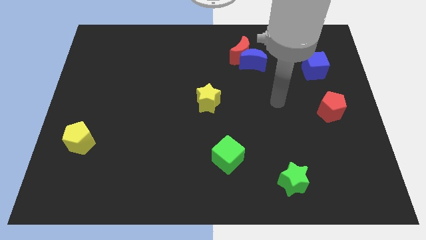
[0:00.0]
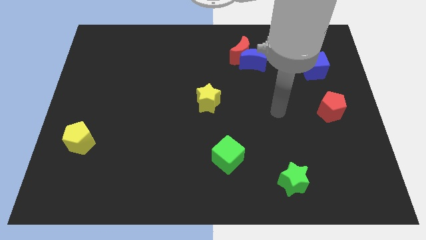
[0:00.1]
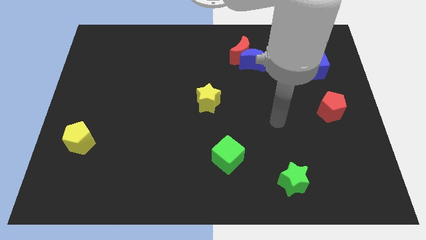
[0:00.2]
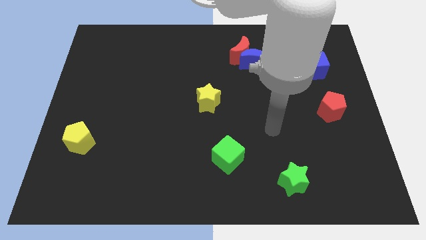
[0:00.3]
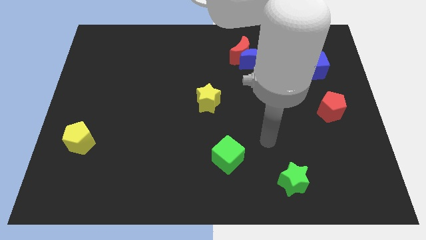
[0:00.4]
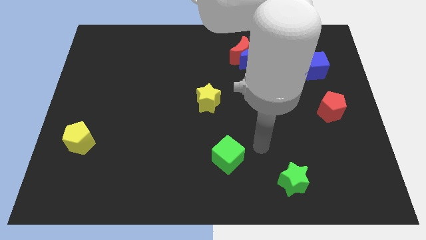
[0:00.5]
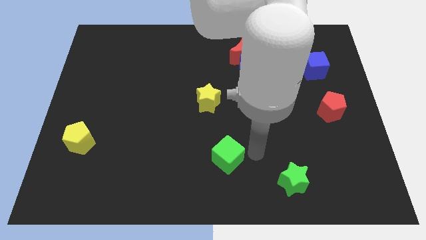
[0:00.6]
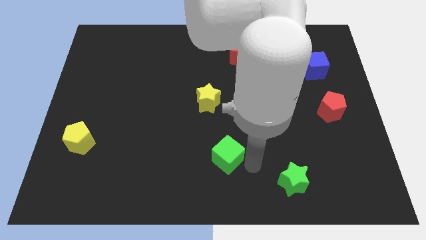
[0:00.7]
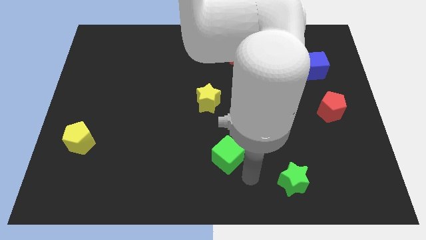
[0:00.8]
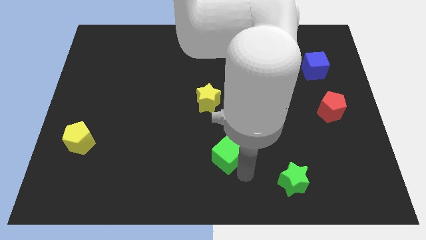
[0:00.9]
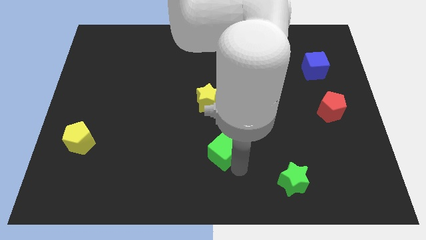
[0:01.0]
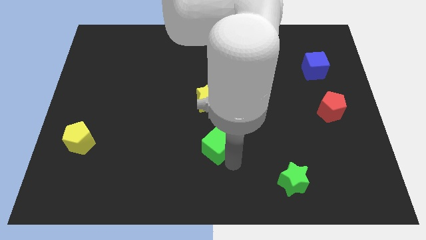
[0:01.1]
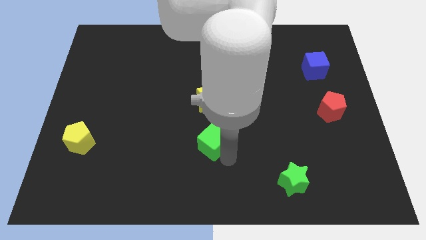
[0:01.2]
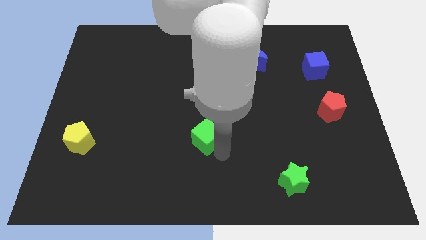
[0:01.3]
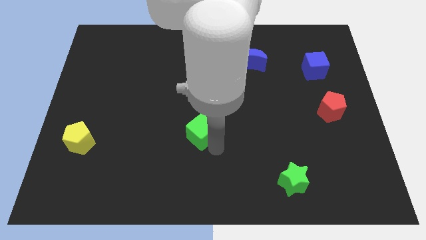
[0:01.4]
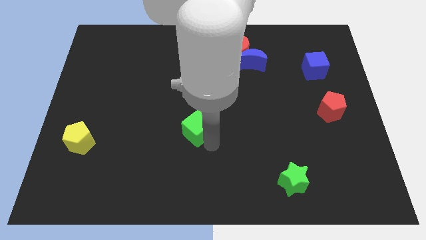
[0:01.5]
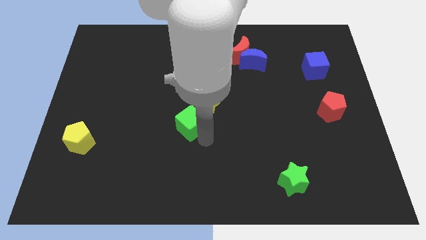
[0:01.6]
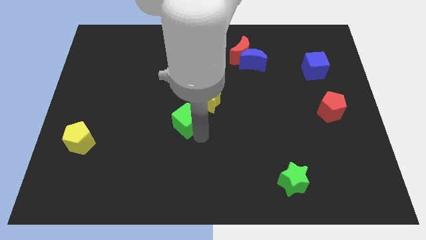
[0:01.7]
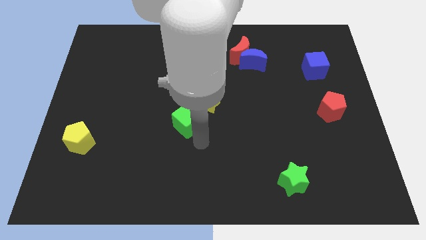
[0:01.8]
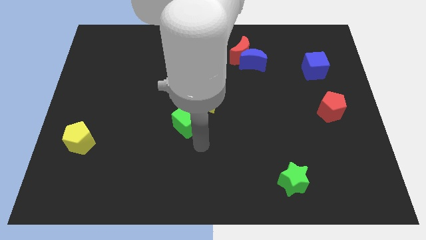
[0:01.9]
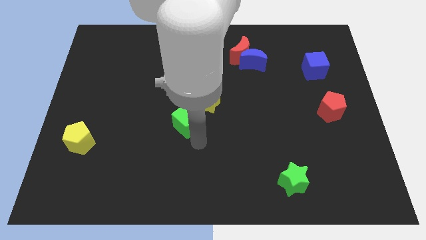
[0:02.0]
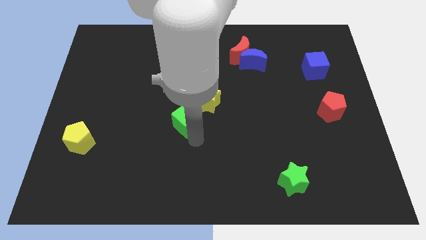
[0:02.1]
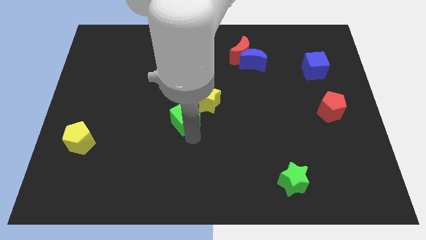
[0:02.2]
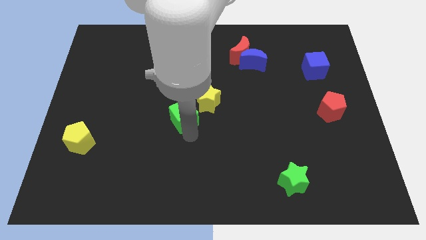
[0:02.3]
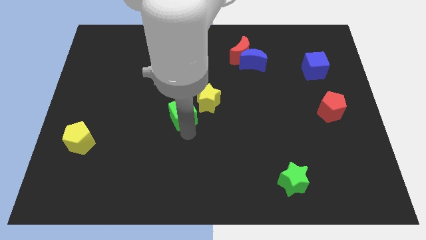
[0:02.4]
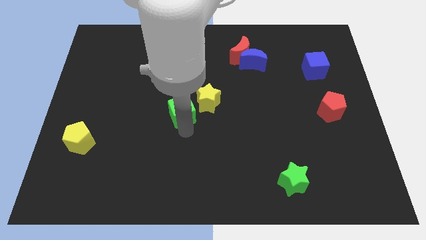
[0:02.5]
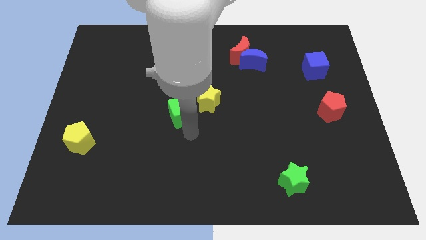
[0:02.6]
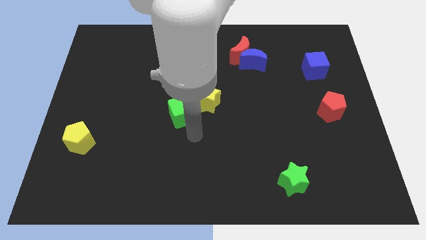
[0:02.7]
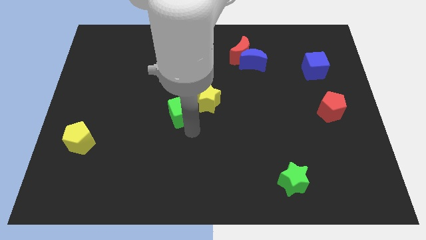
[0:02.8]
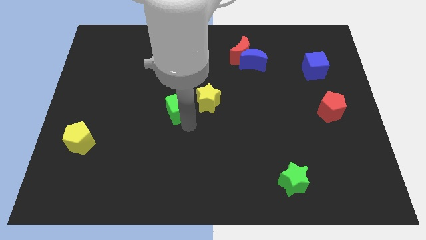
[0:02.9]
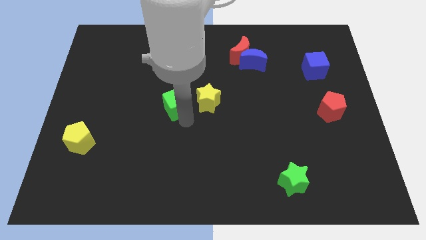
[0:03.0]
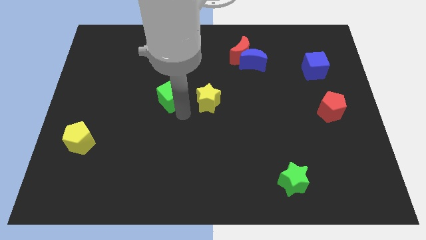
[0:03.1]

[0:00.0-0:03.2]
push the green cube upwards and left

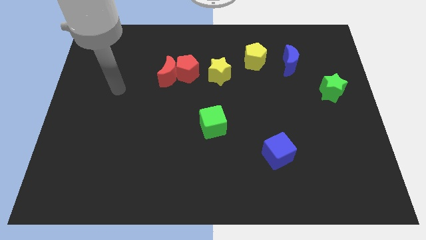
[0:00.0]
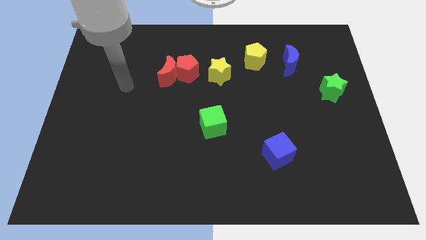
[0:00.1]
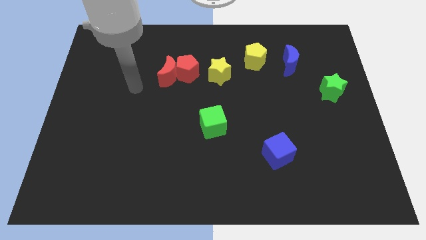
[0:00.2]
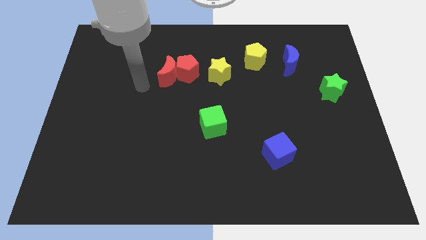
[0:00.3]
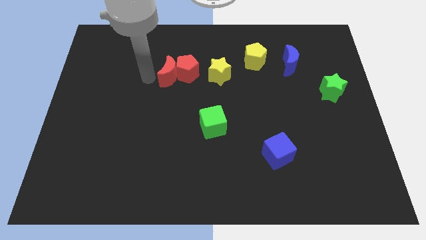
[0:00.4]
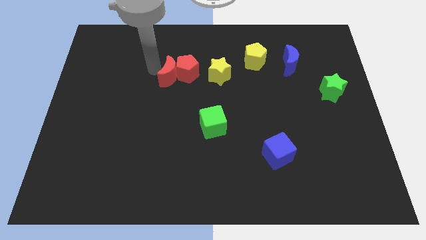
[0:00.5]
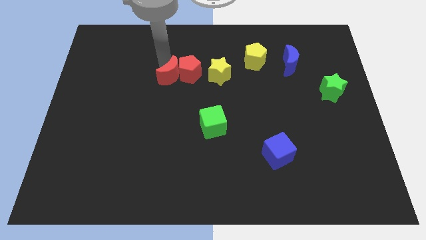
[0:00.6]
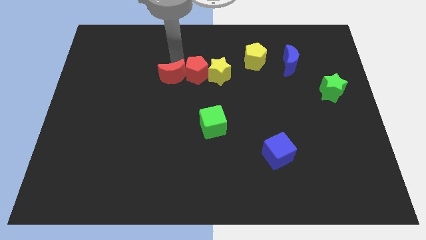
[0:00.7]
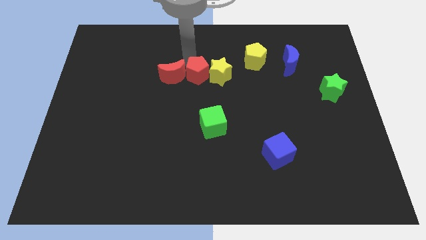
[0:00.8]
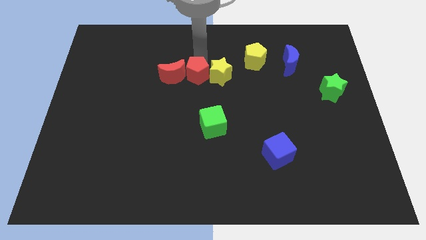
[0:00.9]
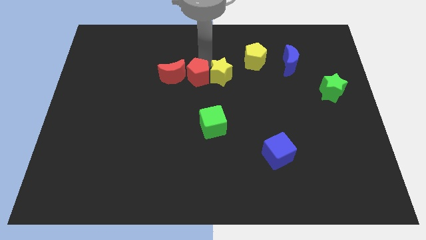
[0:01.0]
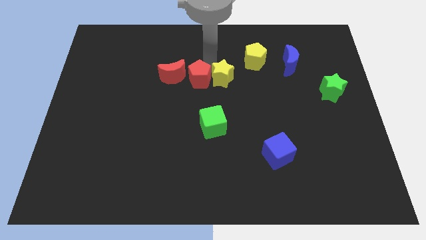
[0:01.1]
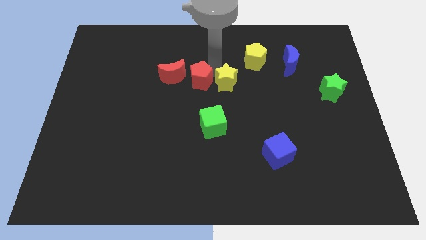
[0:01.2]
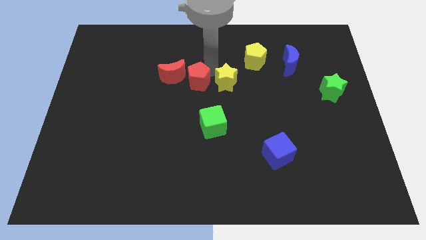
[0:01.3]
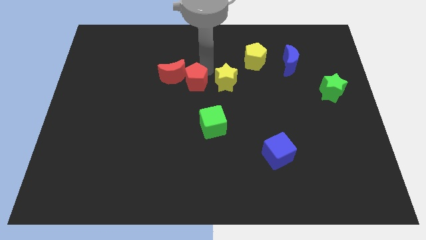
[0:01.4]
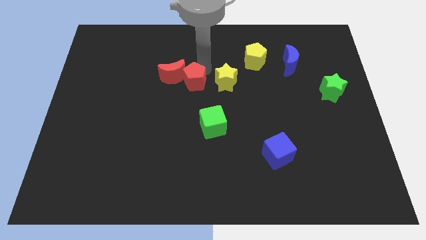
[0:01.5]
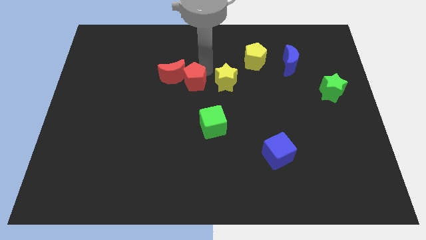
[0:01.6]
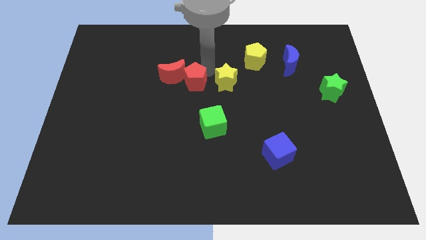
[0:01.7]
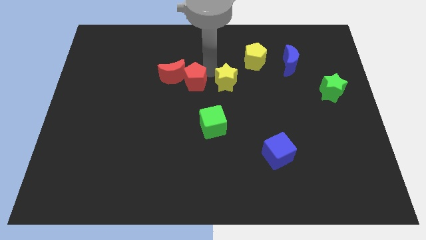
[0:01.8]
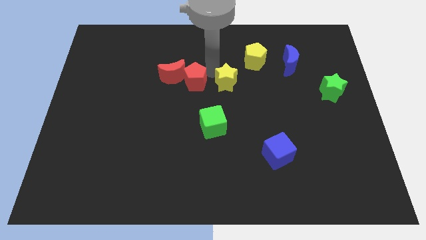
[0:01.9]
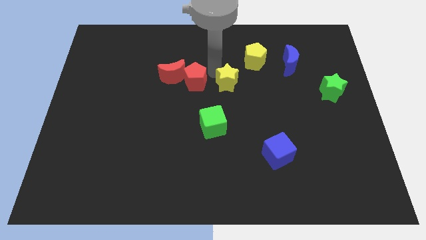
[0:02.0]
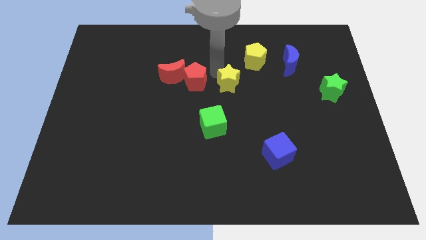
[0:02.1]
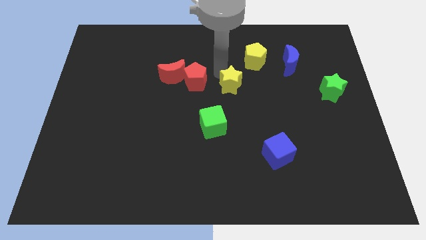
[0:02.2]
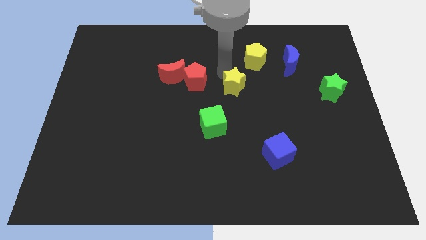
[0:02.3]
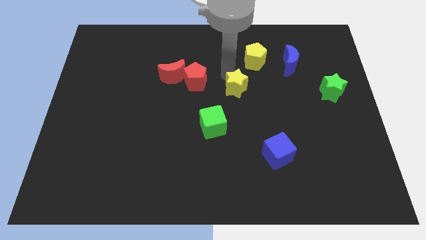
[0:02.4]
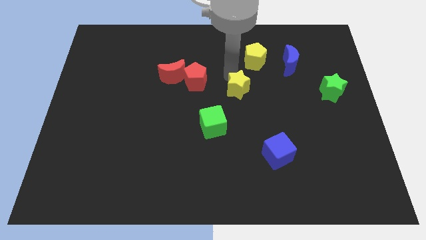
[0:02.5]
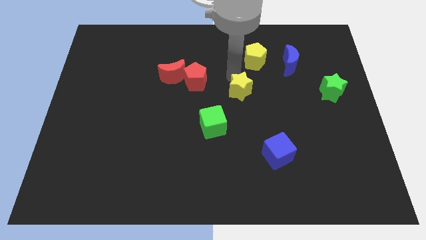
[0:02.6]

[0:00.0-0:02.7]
slide the yellow star down and right diagonally a little

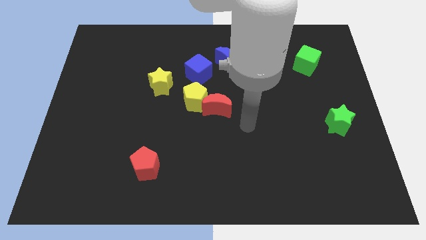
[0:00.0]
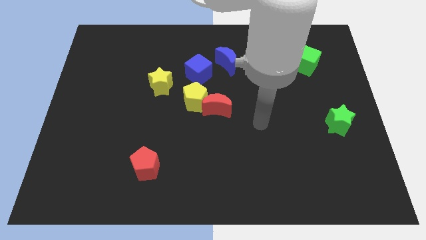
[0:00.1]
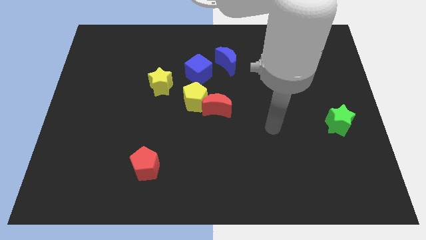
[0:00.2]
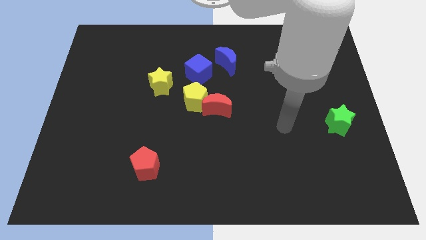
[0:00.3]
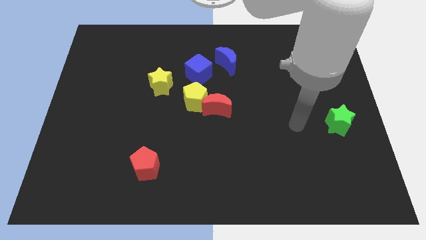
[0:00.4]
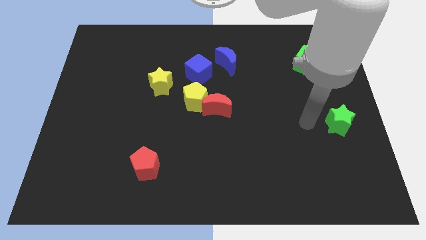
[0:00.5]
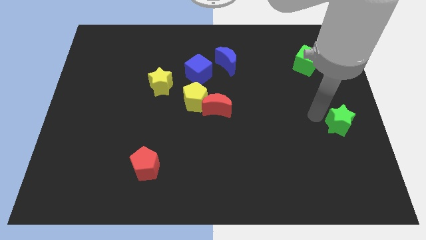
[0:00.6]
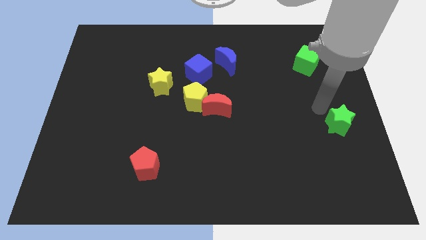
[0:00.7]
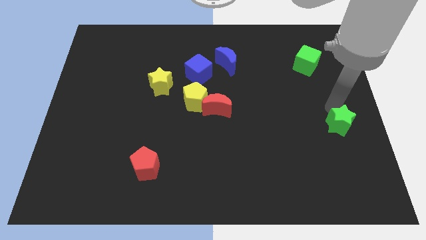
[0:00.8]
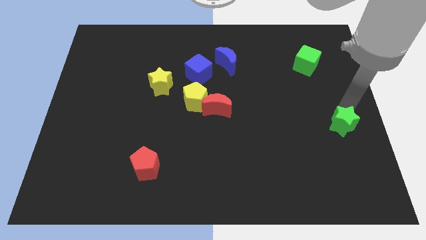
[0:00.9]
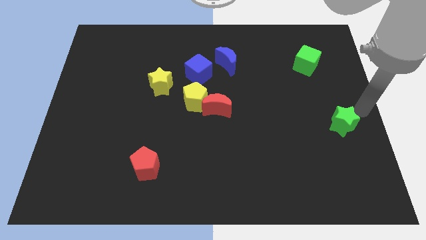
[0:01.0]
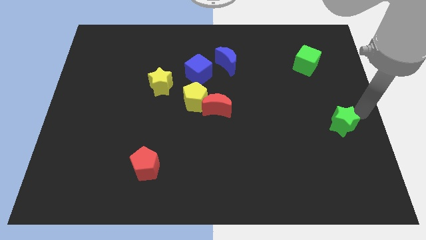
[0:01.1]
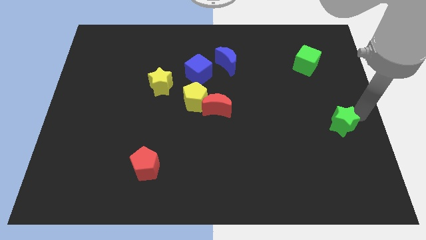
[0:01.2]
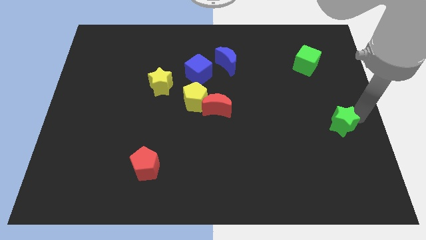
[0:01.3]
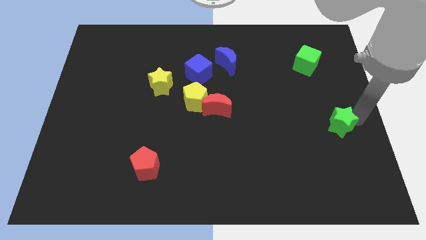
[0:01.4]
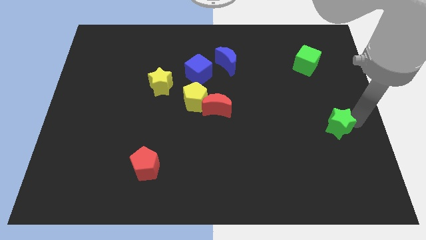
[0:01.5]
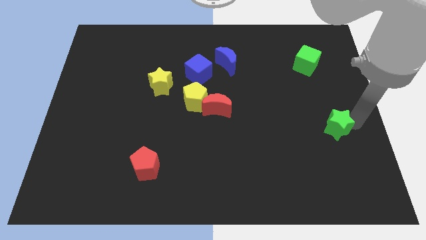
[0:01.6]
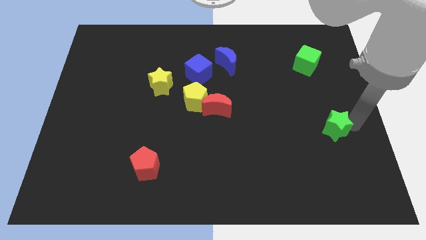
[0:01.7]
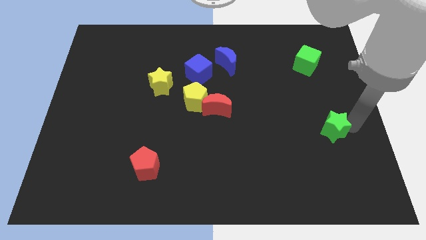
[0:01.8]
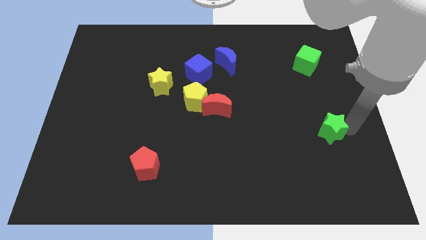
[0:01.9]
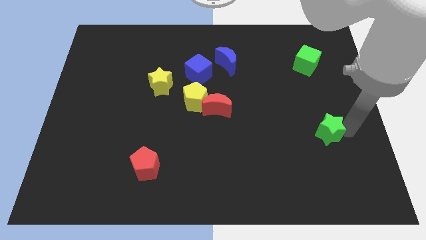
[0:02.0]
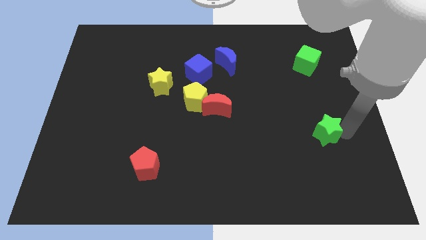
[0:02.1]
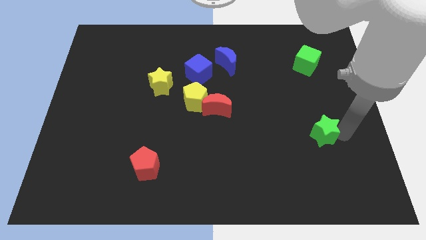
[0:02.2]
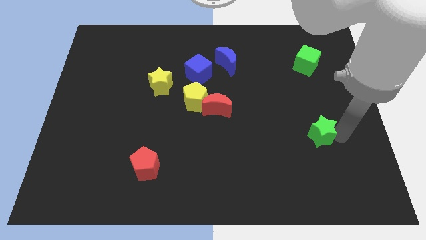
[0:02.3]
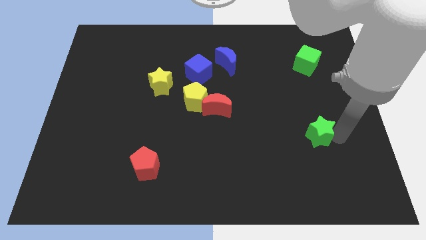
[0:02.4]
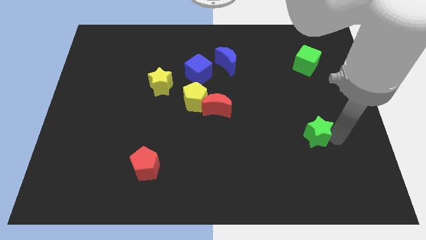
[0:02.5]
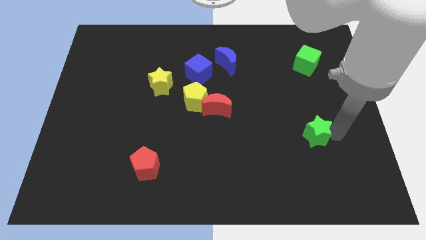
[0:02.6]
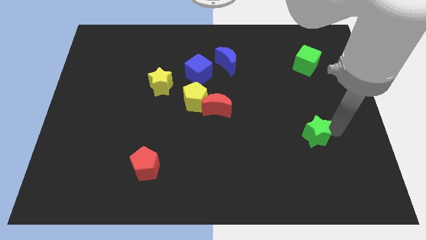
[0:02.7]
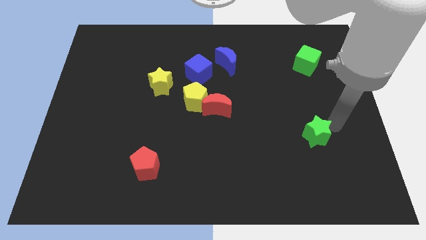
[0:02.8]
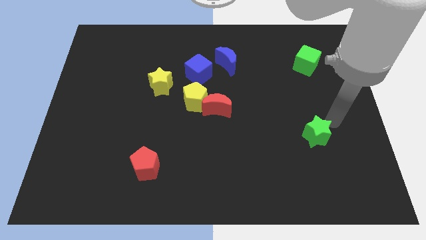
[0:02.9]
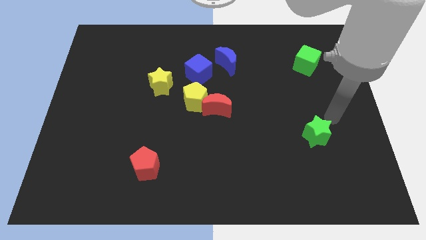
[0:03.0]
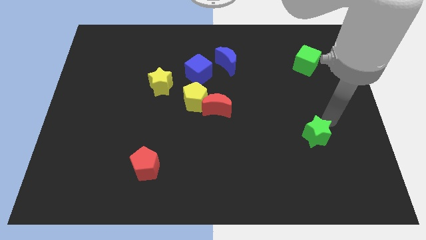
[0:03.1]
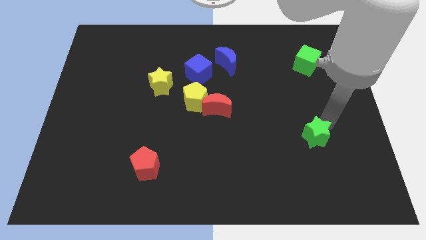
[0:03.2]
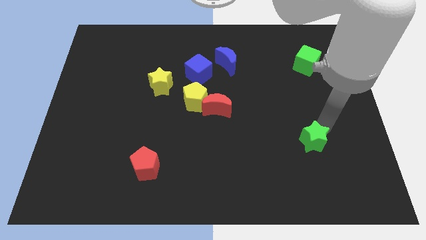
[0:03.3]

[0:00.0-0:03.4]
slightly push the green star diagonally down and left
